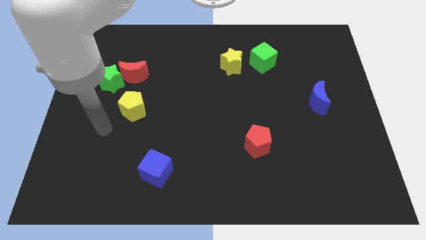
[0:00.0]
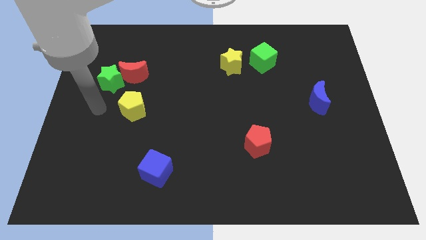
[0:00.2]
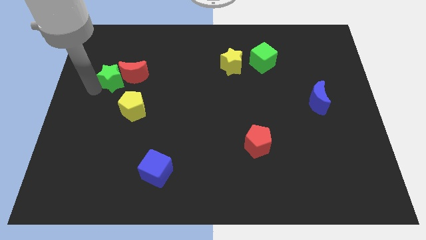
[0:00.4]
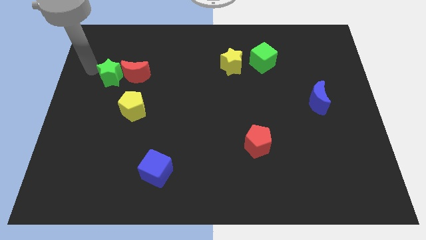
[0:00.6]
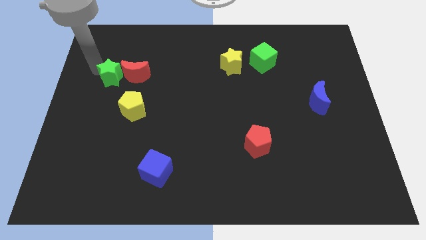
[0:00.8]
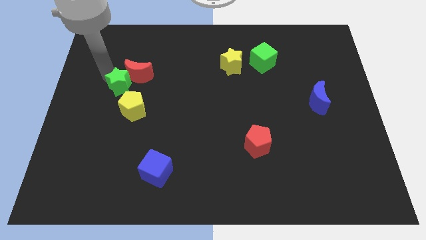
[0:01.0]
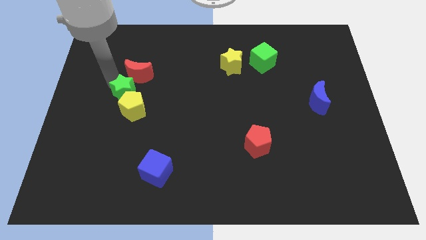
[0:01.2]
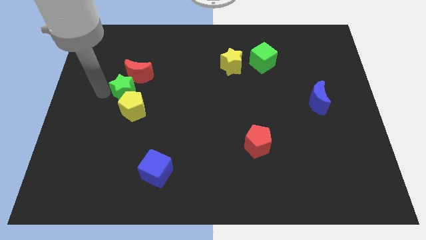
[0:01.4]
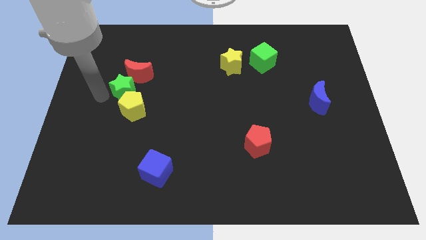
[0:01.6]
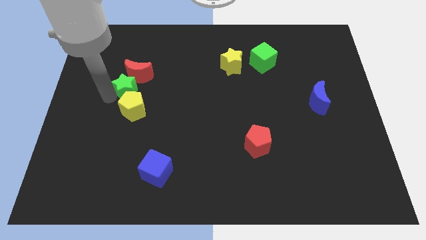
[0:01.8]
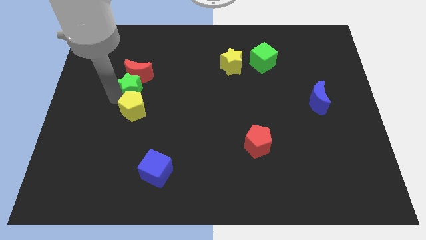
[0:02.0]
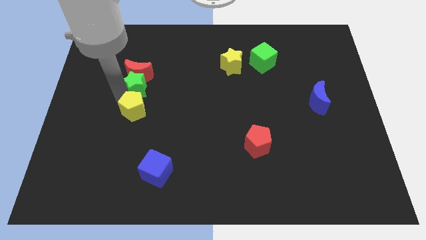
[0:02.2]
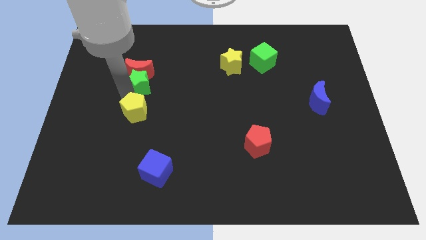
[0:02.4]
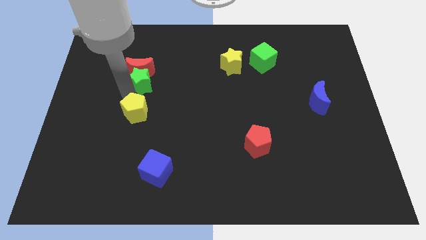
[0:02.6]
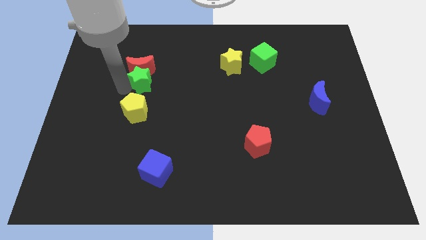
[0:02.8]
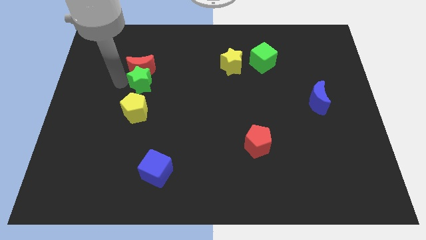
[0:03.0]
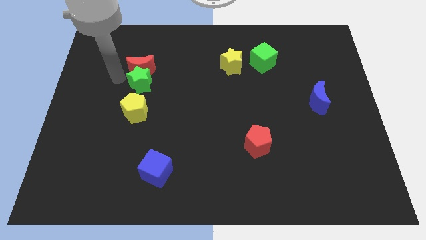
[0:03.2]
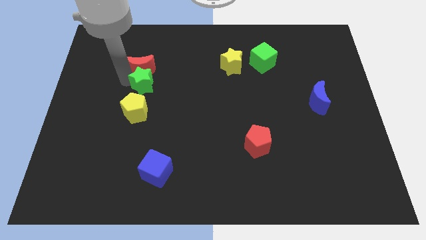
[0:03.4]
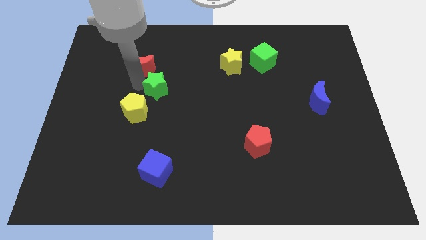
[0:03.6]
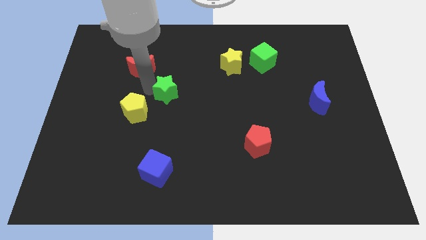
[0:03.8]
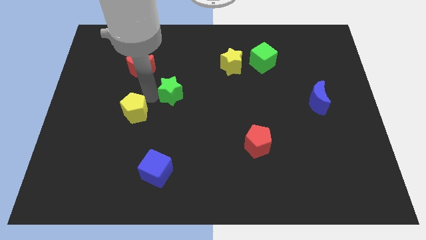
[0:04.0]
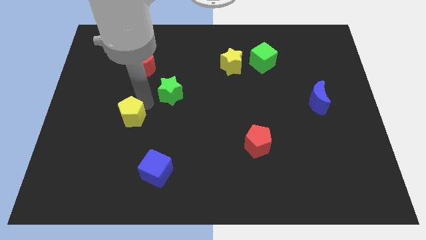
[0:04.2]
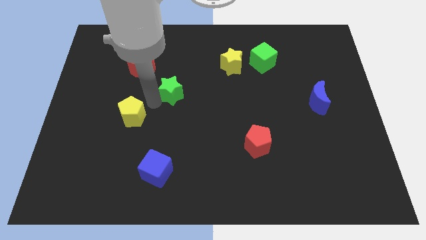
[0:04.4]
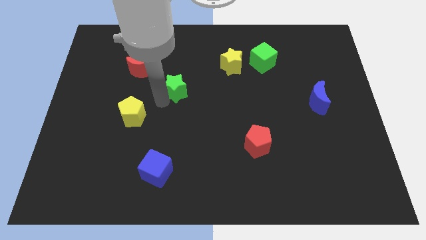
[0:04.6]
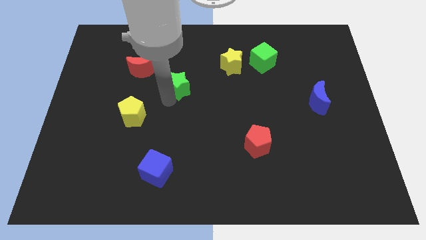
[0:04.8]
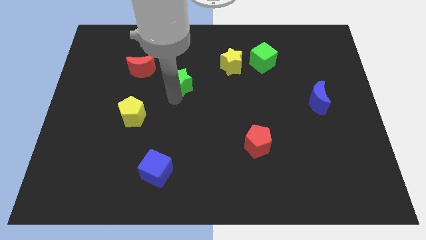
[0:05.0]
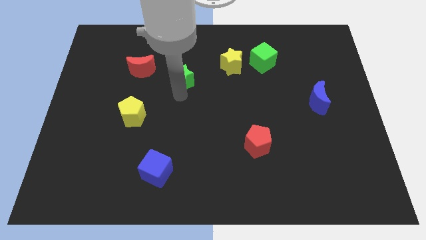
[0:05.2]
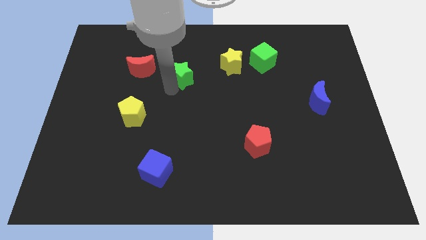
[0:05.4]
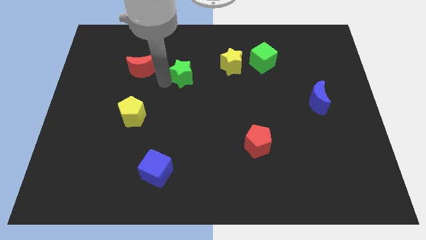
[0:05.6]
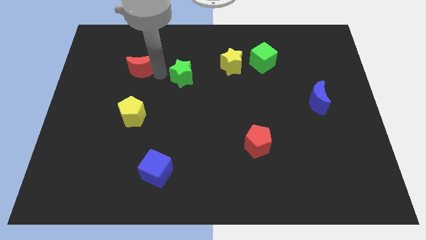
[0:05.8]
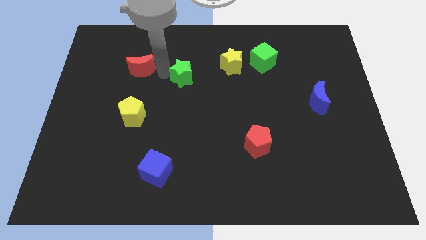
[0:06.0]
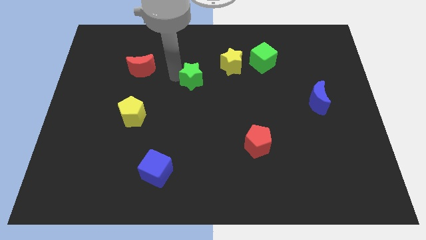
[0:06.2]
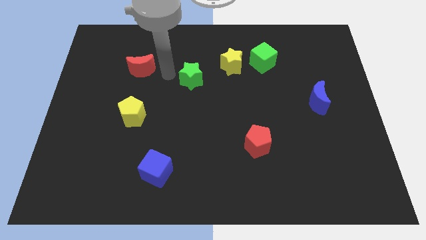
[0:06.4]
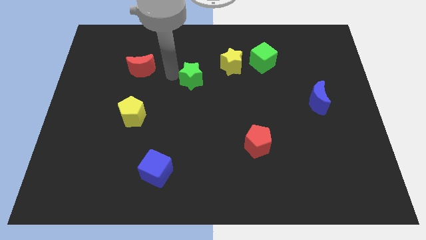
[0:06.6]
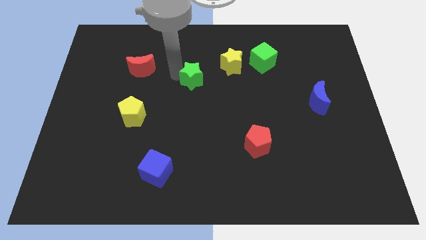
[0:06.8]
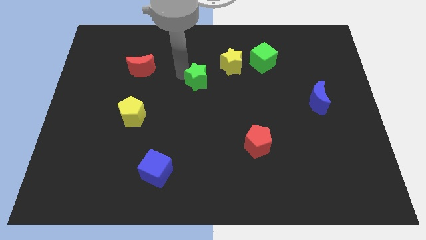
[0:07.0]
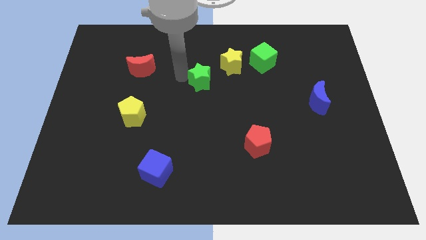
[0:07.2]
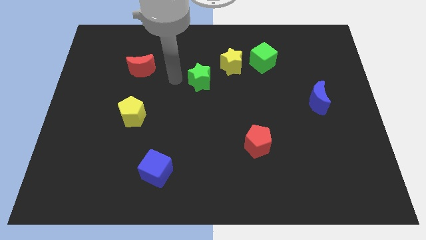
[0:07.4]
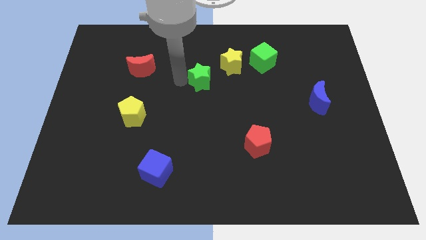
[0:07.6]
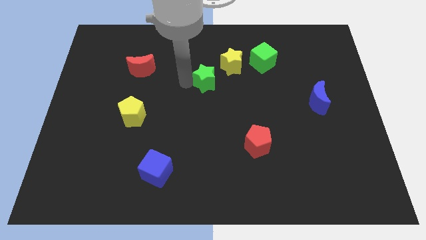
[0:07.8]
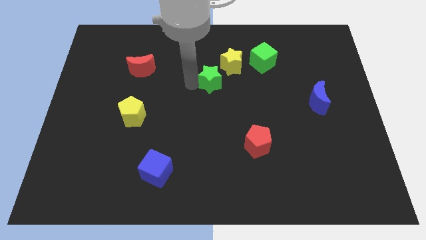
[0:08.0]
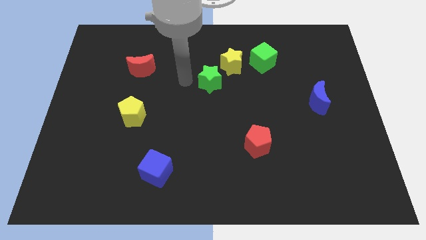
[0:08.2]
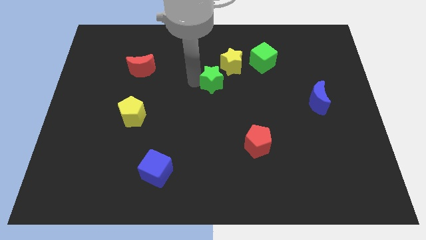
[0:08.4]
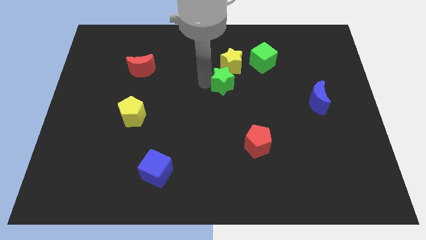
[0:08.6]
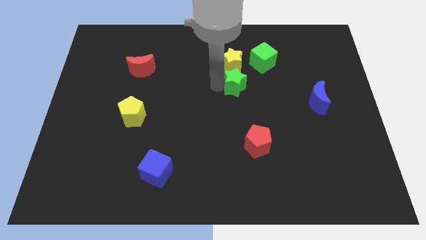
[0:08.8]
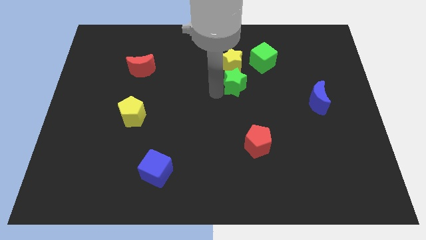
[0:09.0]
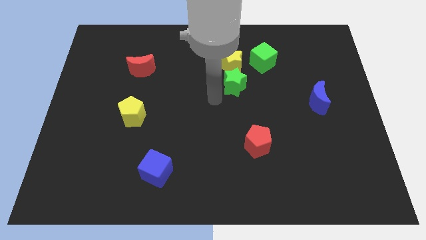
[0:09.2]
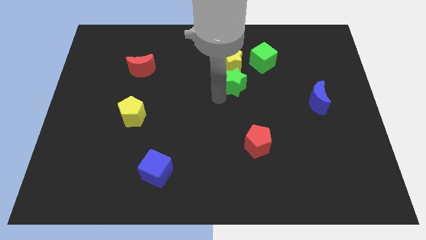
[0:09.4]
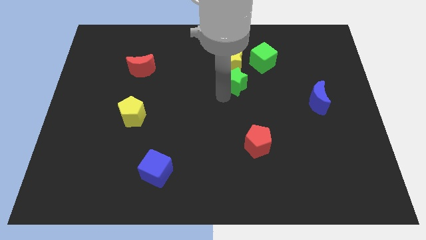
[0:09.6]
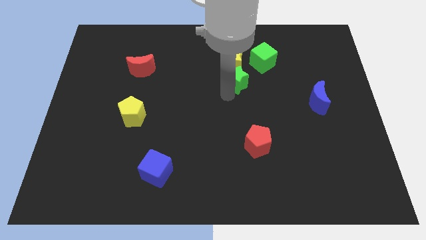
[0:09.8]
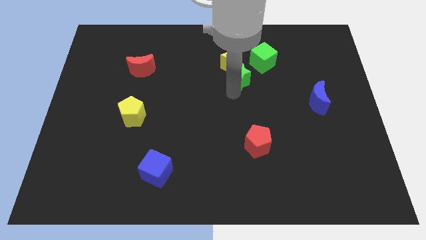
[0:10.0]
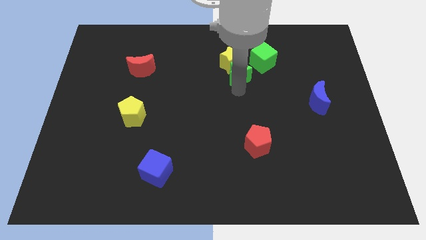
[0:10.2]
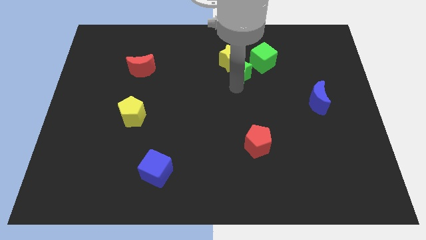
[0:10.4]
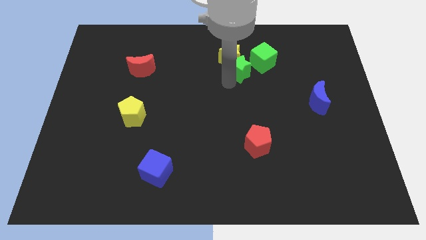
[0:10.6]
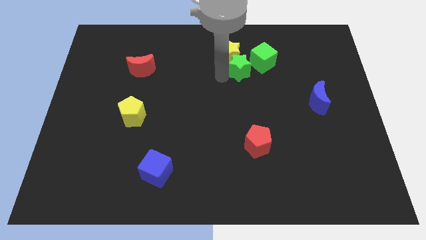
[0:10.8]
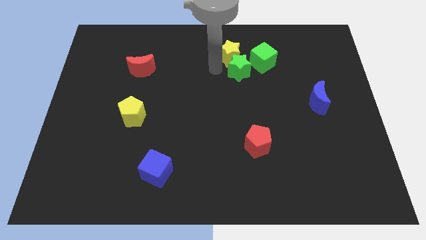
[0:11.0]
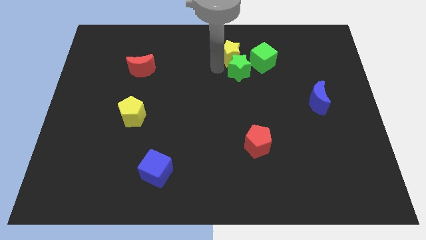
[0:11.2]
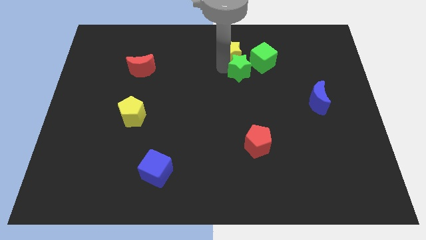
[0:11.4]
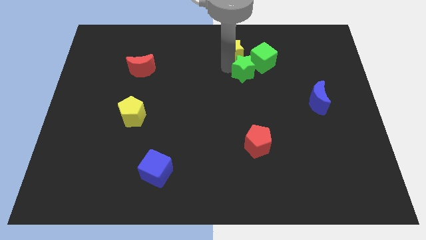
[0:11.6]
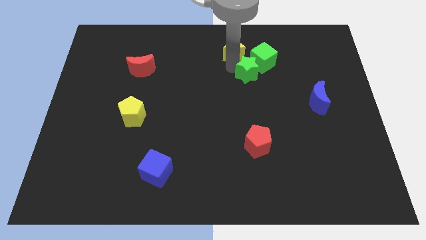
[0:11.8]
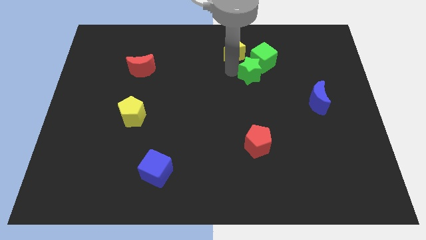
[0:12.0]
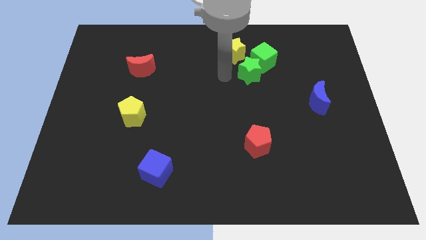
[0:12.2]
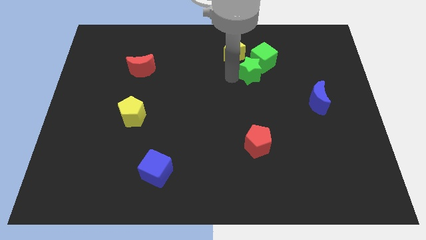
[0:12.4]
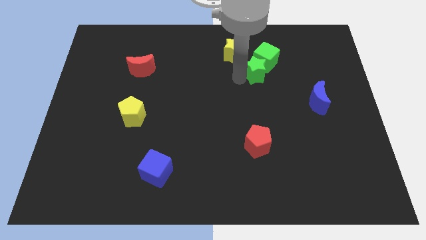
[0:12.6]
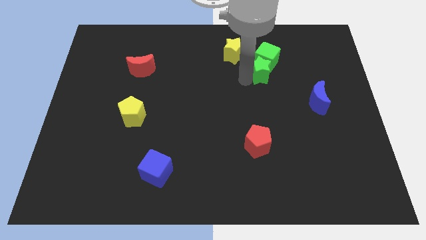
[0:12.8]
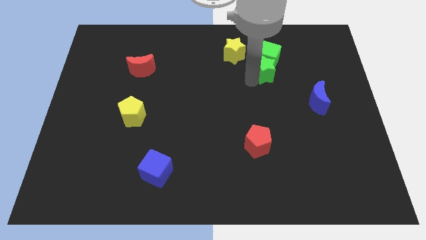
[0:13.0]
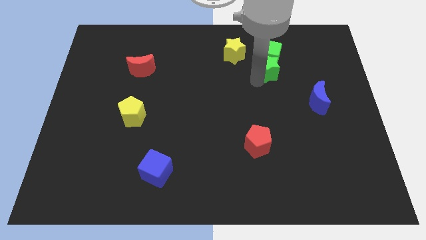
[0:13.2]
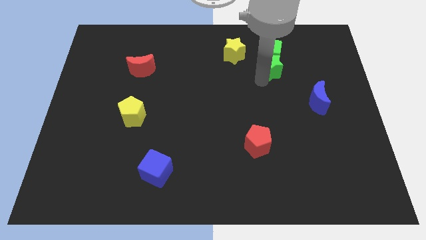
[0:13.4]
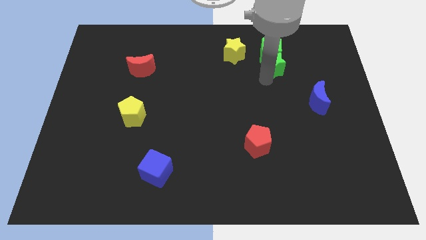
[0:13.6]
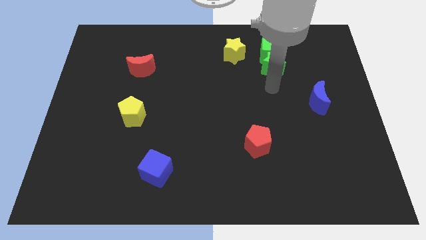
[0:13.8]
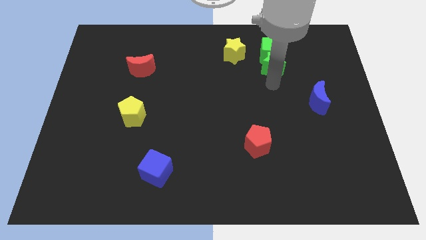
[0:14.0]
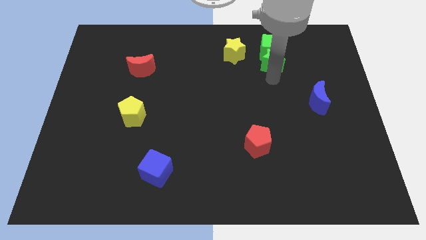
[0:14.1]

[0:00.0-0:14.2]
move the green star right of the yellow star

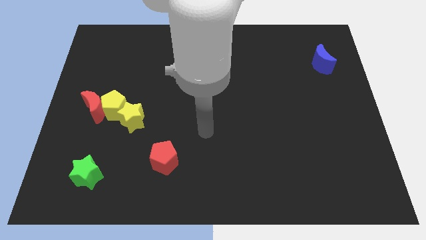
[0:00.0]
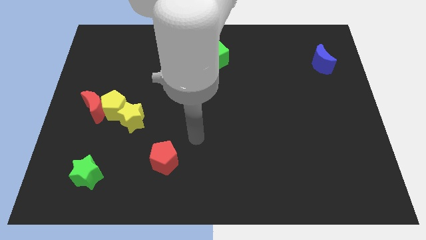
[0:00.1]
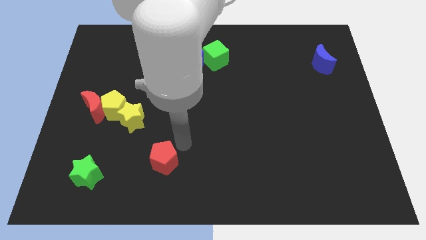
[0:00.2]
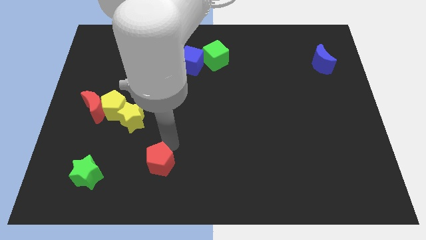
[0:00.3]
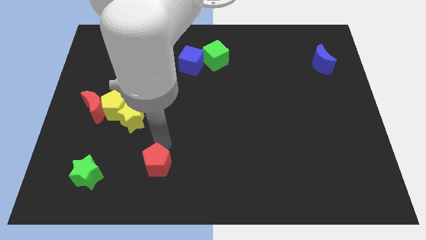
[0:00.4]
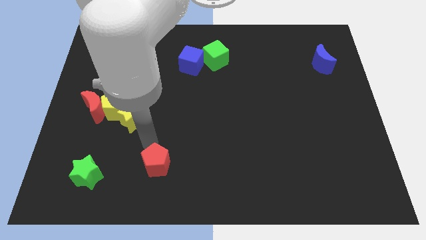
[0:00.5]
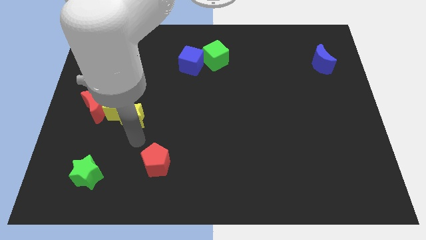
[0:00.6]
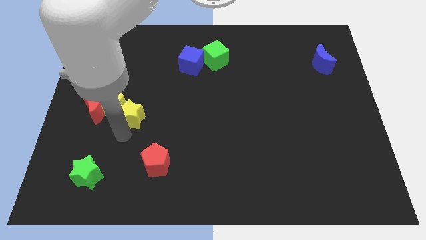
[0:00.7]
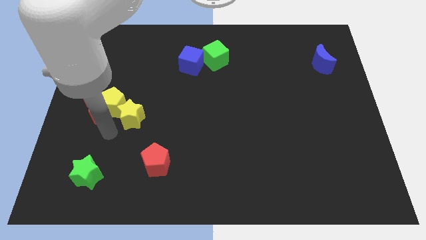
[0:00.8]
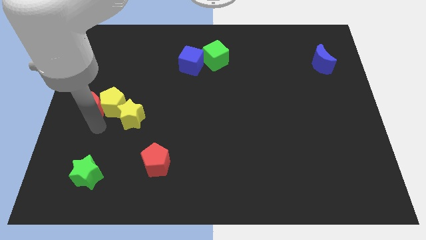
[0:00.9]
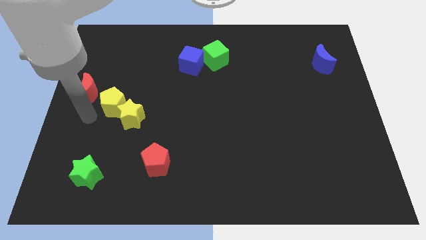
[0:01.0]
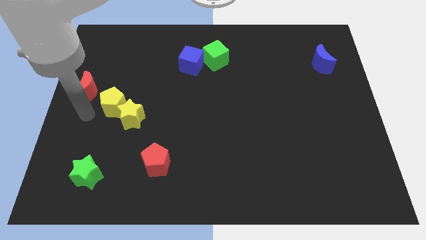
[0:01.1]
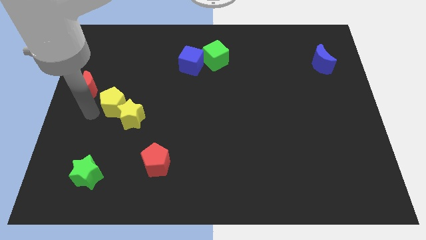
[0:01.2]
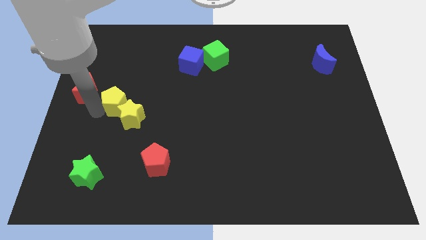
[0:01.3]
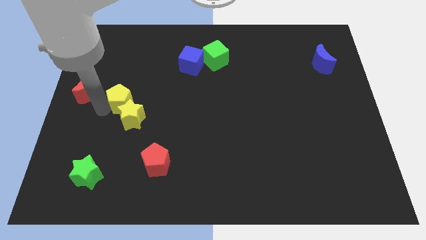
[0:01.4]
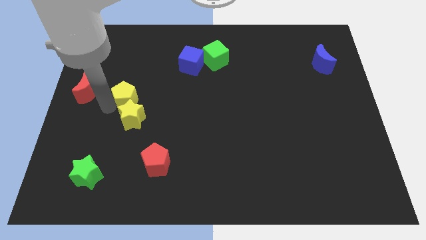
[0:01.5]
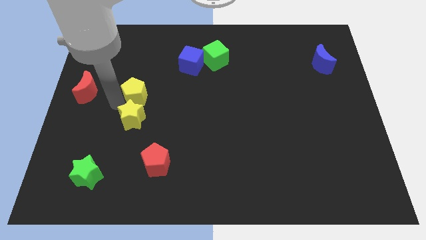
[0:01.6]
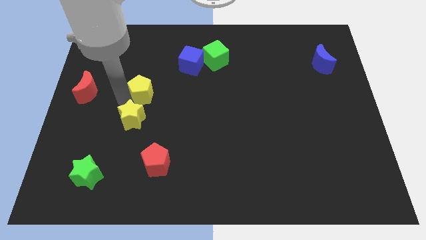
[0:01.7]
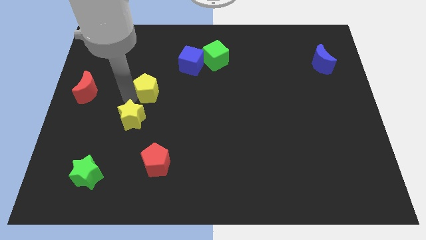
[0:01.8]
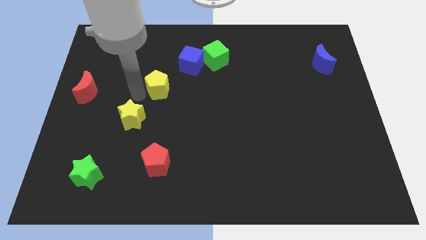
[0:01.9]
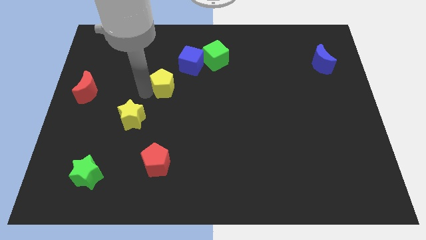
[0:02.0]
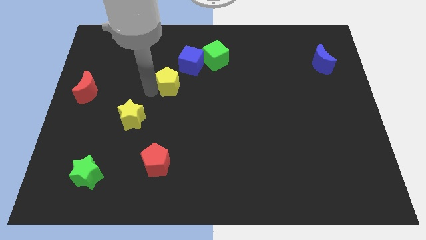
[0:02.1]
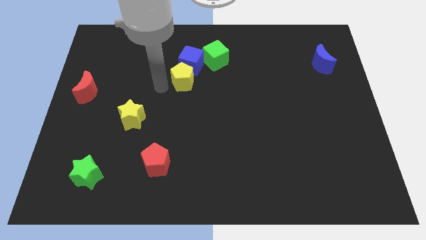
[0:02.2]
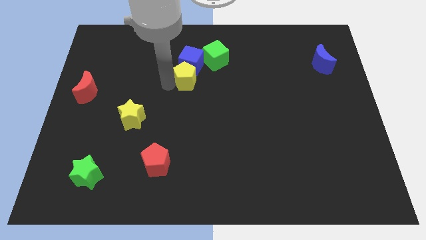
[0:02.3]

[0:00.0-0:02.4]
push the yellow pentagon to the bottom right side of the blue cube
